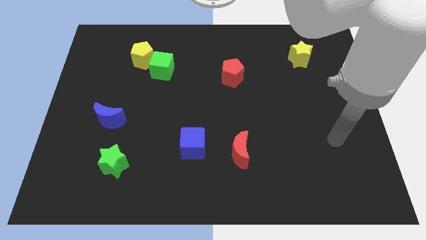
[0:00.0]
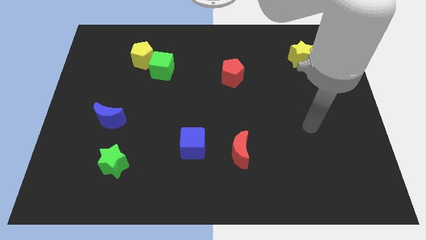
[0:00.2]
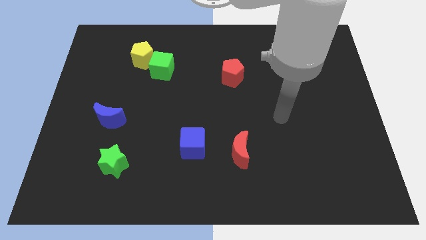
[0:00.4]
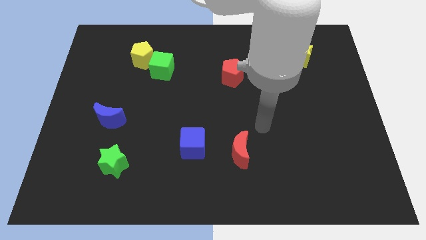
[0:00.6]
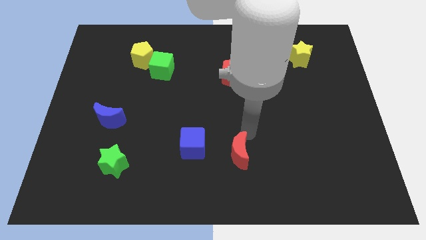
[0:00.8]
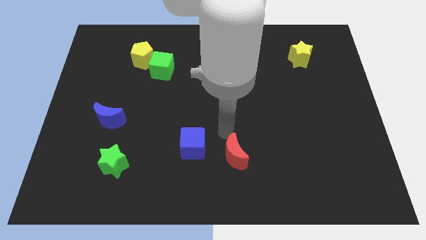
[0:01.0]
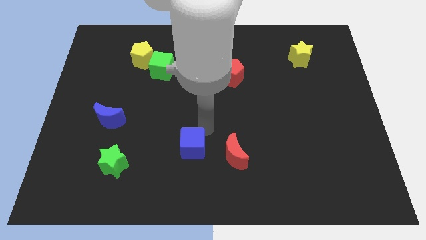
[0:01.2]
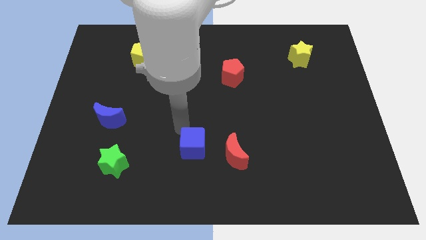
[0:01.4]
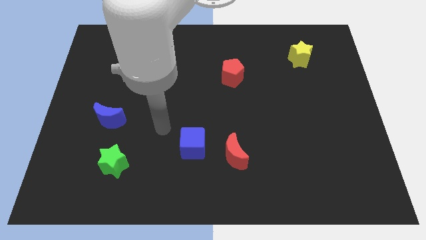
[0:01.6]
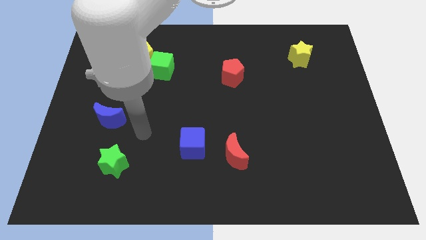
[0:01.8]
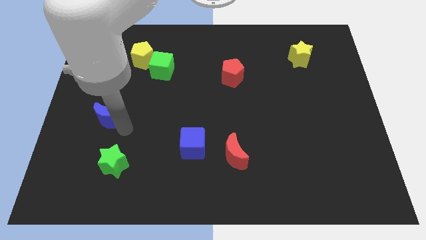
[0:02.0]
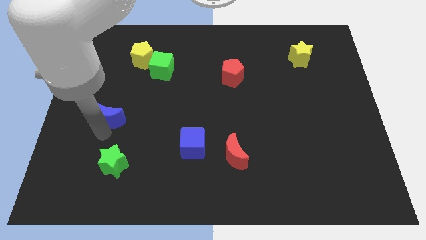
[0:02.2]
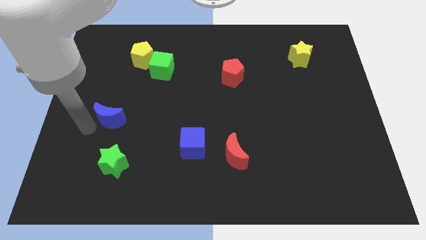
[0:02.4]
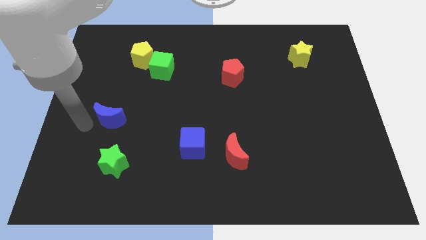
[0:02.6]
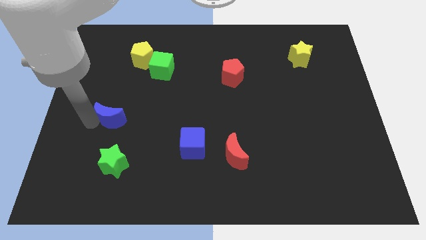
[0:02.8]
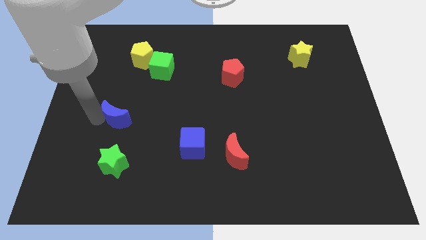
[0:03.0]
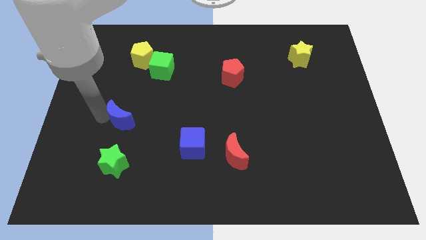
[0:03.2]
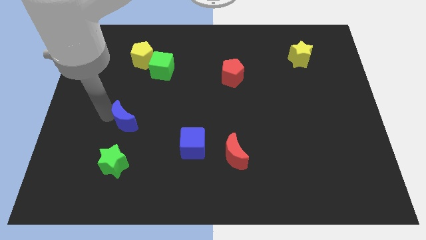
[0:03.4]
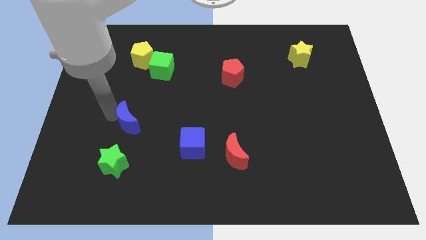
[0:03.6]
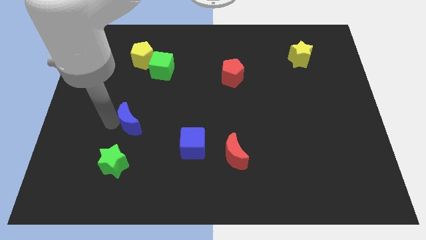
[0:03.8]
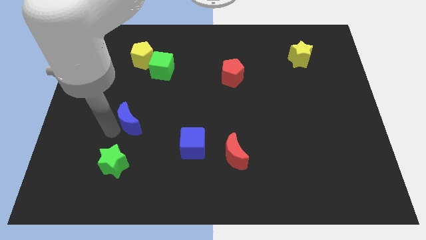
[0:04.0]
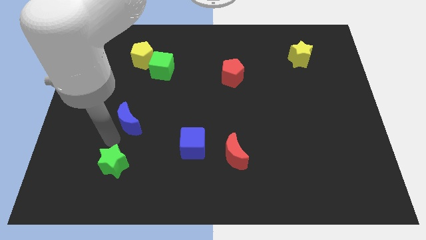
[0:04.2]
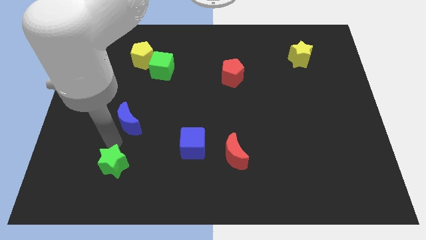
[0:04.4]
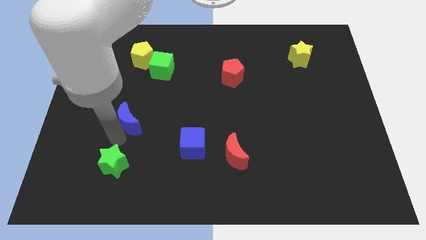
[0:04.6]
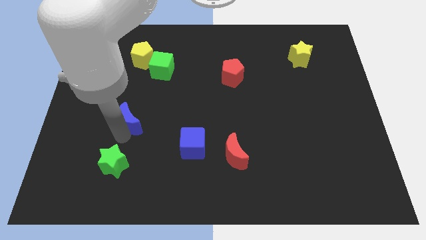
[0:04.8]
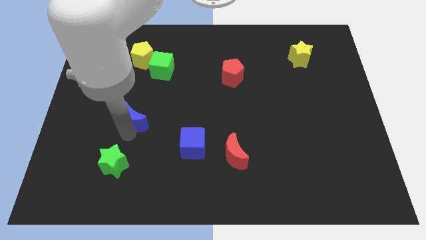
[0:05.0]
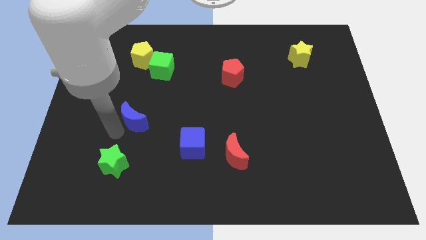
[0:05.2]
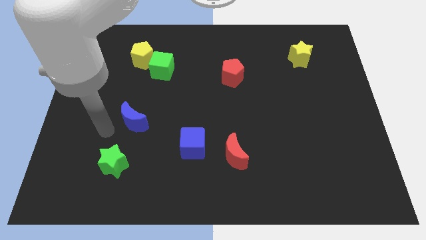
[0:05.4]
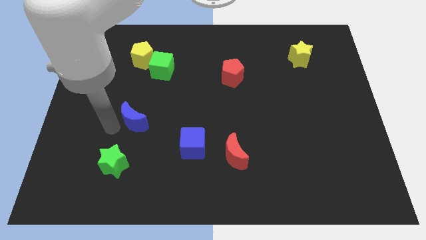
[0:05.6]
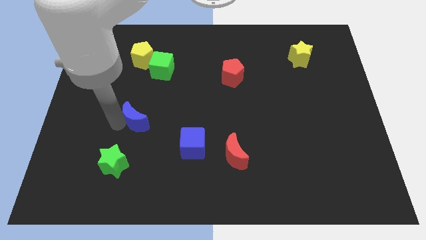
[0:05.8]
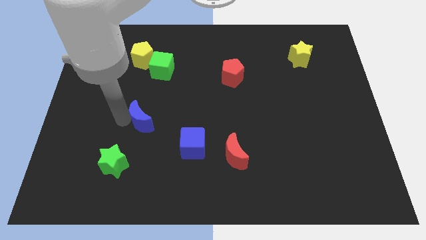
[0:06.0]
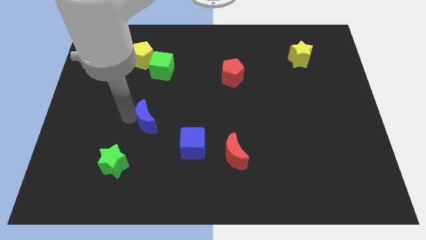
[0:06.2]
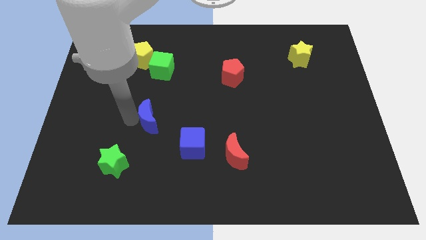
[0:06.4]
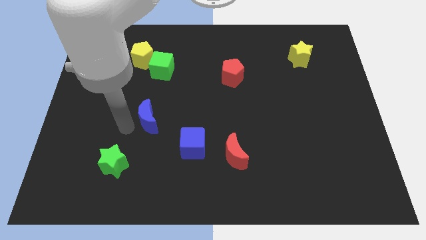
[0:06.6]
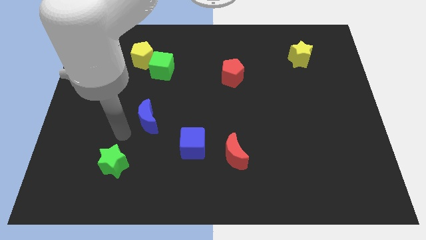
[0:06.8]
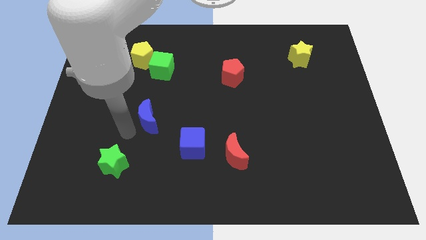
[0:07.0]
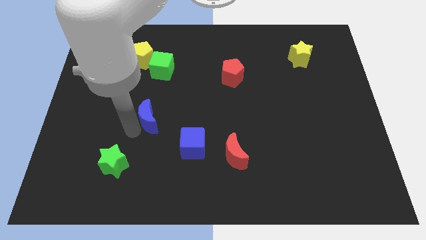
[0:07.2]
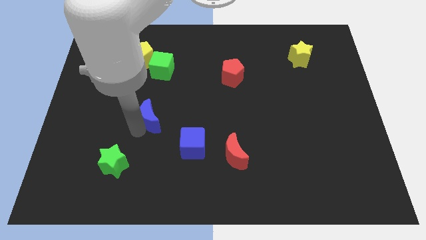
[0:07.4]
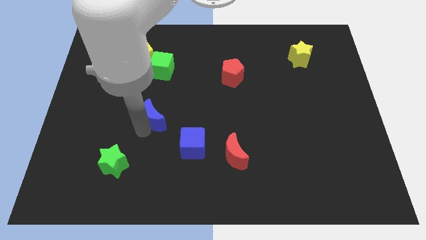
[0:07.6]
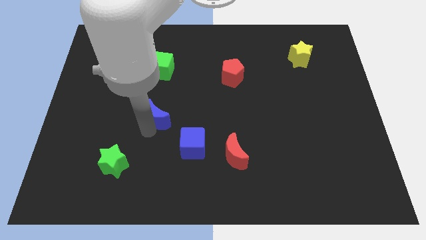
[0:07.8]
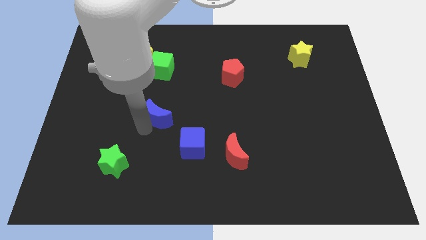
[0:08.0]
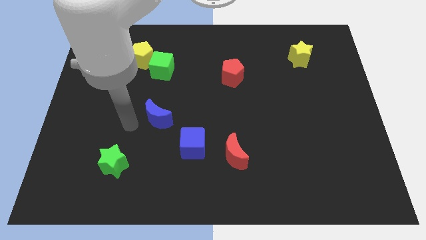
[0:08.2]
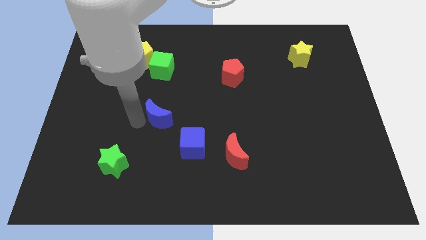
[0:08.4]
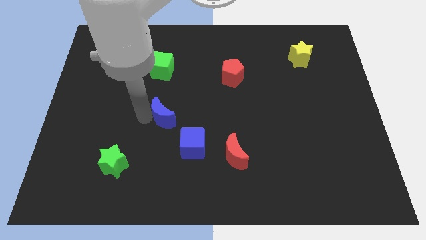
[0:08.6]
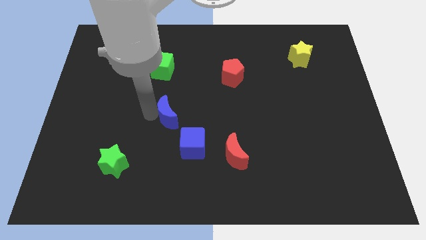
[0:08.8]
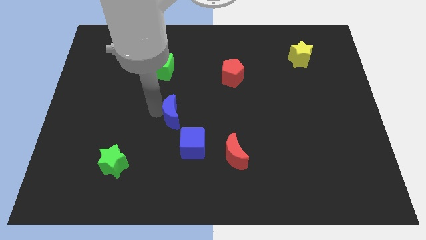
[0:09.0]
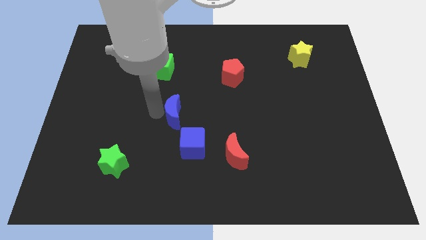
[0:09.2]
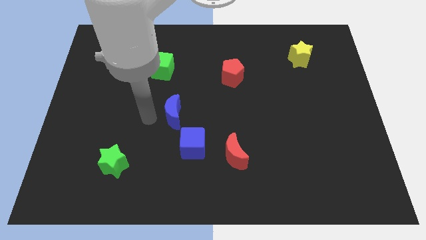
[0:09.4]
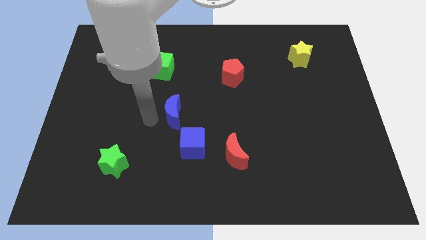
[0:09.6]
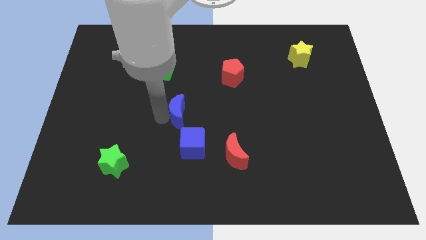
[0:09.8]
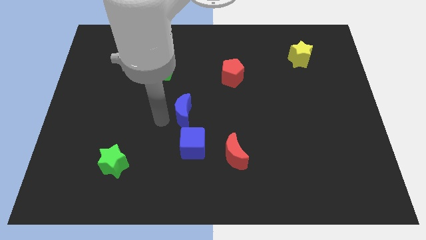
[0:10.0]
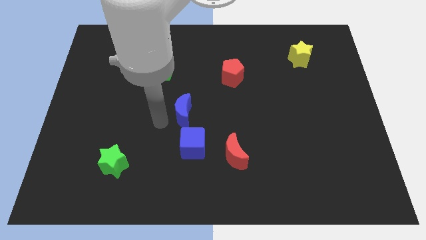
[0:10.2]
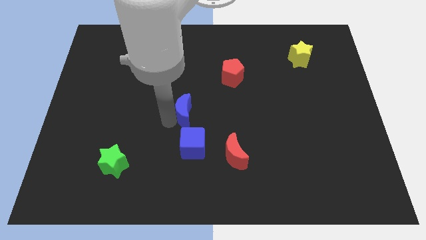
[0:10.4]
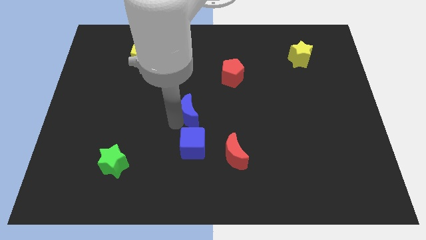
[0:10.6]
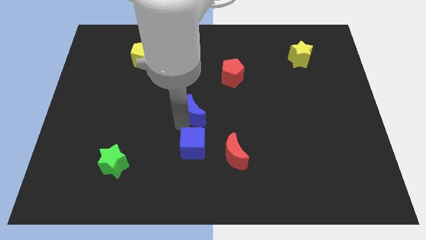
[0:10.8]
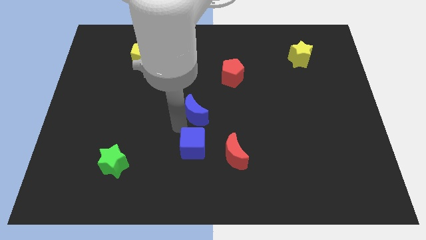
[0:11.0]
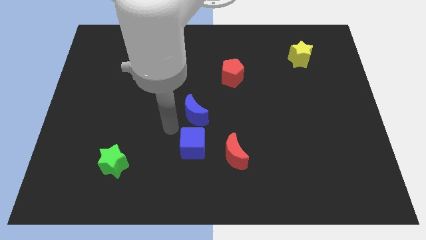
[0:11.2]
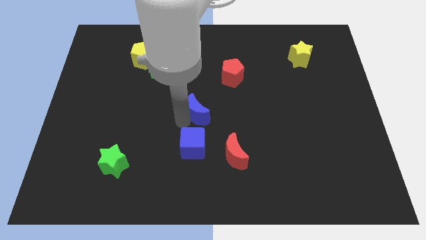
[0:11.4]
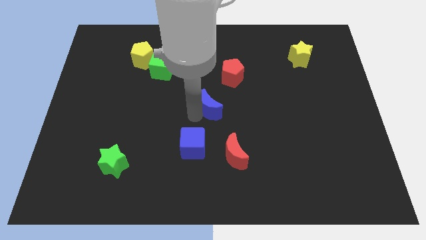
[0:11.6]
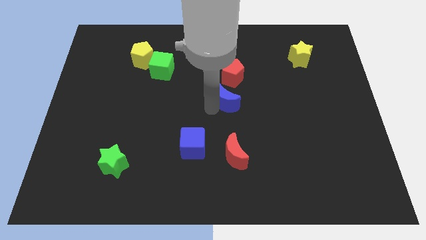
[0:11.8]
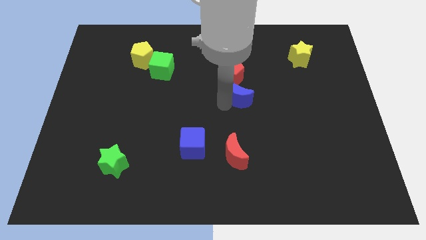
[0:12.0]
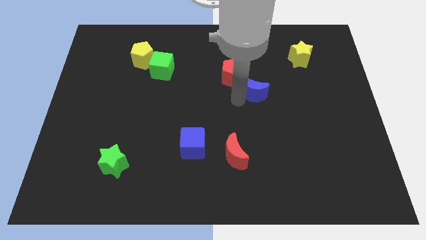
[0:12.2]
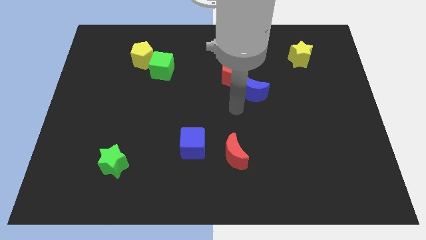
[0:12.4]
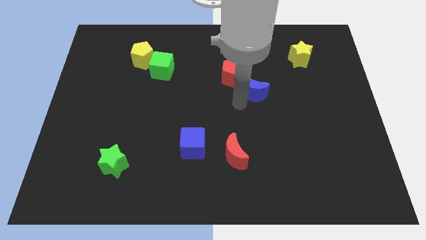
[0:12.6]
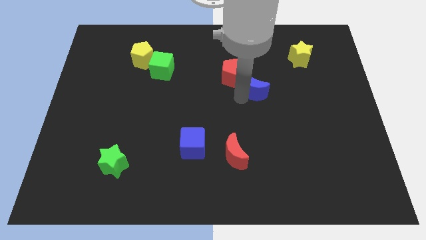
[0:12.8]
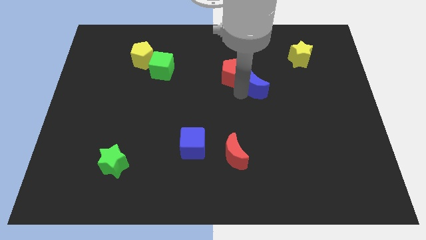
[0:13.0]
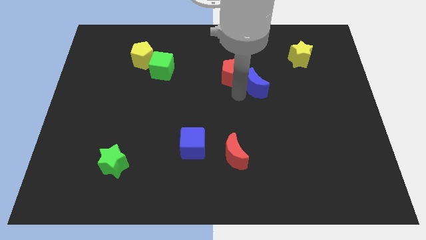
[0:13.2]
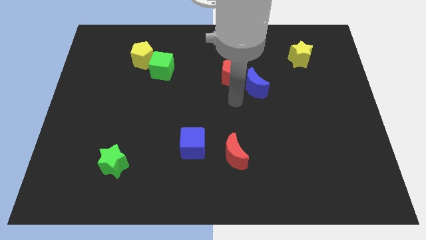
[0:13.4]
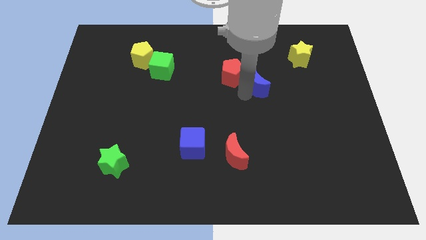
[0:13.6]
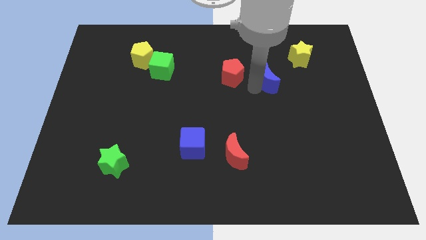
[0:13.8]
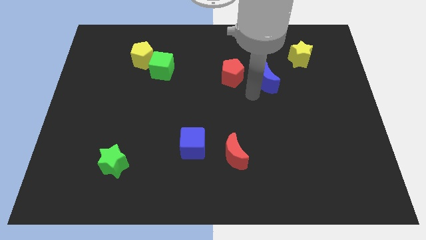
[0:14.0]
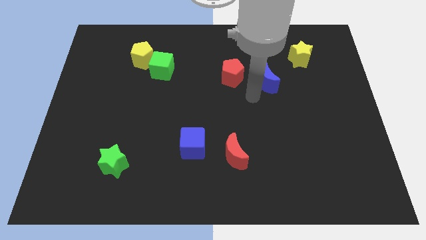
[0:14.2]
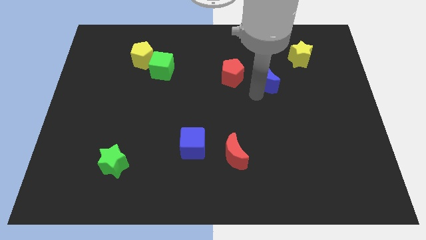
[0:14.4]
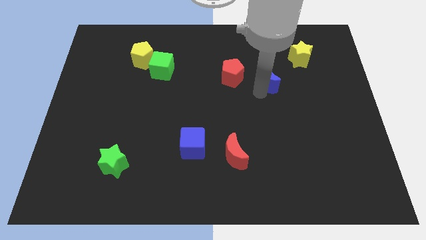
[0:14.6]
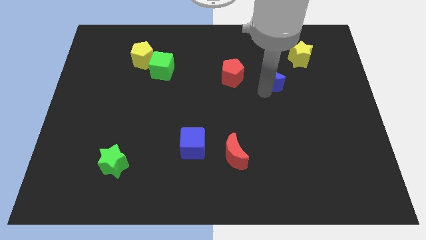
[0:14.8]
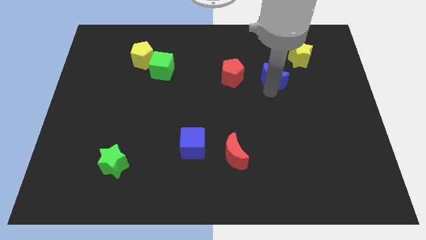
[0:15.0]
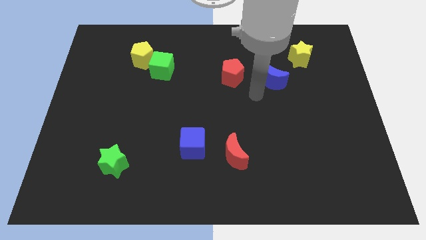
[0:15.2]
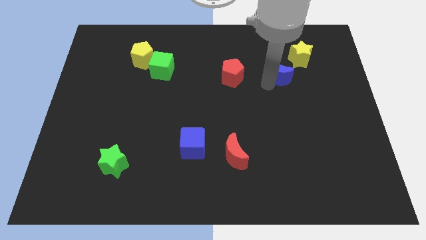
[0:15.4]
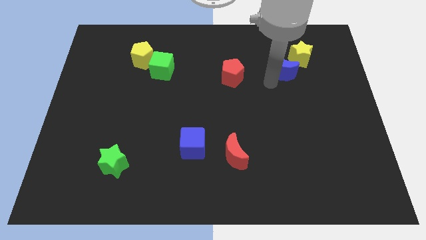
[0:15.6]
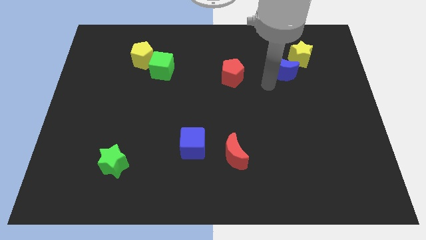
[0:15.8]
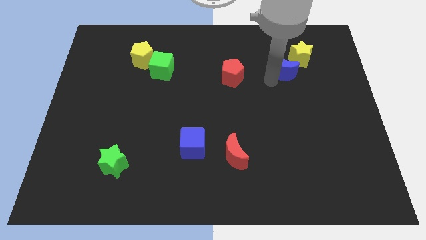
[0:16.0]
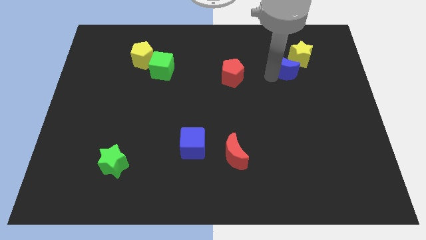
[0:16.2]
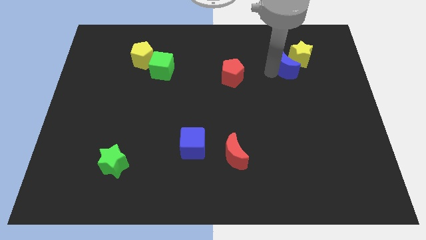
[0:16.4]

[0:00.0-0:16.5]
put the blue moon to the yellow star
